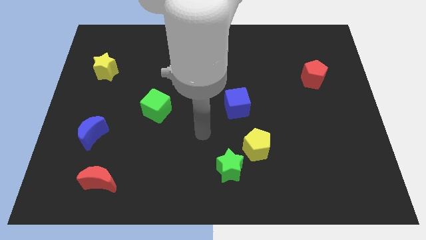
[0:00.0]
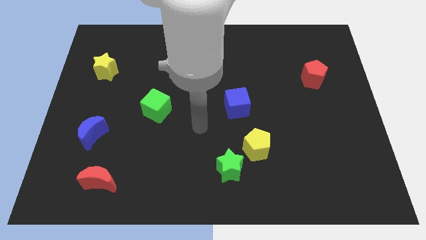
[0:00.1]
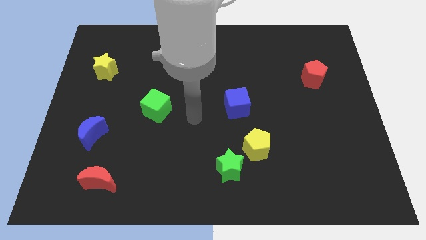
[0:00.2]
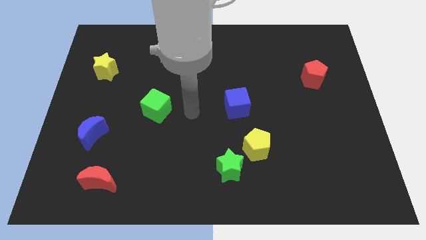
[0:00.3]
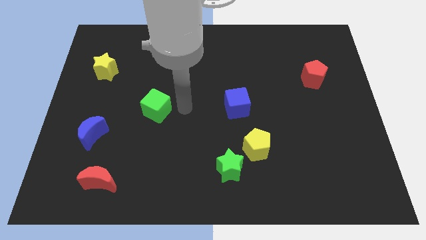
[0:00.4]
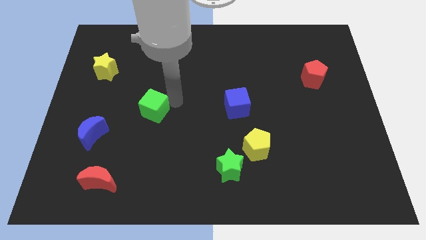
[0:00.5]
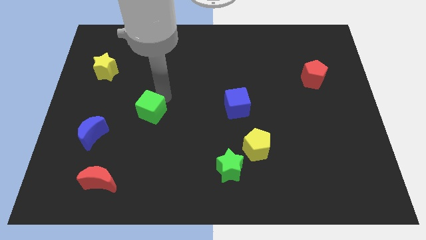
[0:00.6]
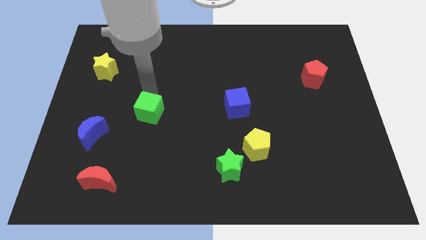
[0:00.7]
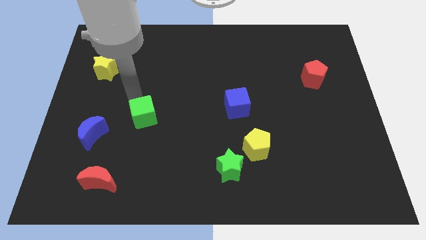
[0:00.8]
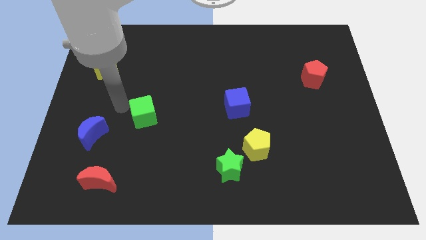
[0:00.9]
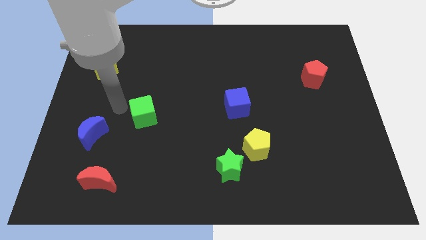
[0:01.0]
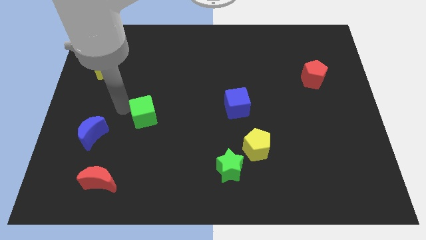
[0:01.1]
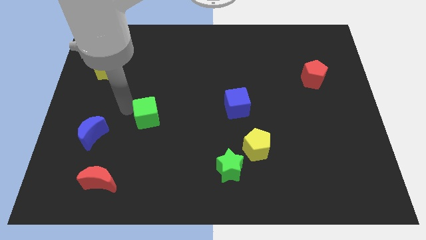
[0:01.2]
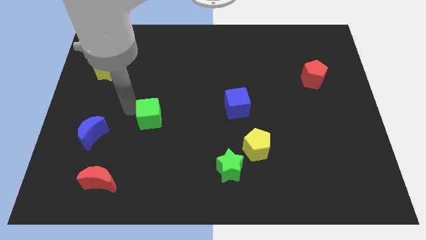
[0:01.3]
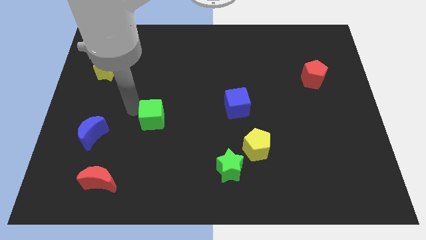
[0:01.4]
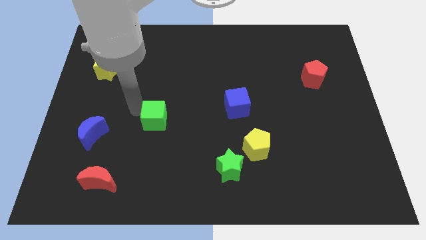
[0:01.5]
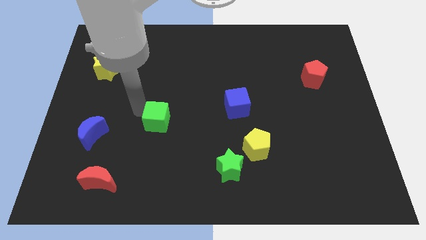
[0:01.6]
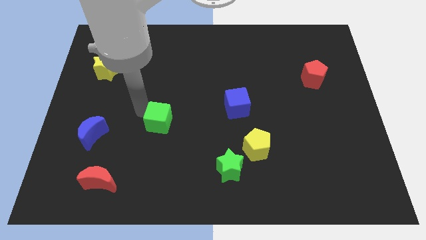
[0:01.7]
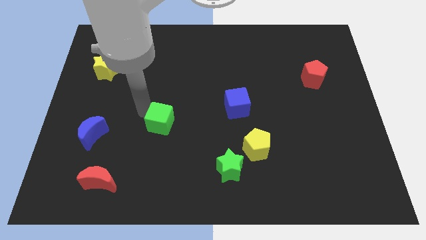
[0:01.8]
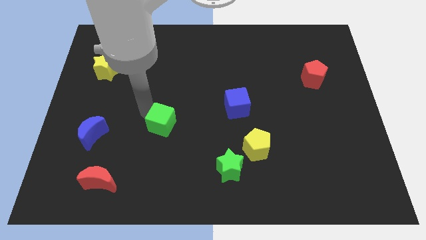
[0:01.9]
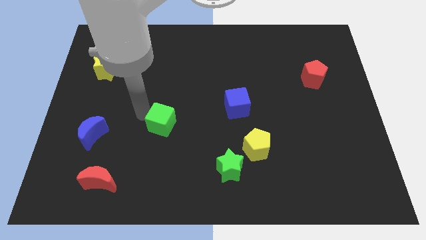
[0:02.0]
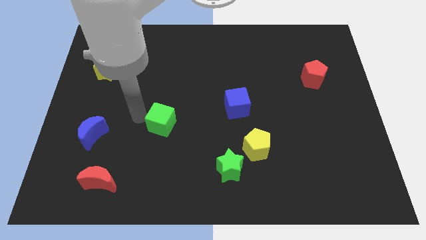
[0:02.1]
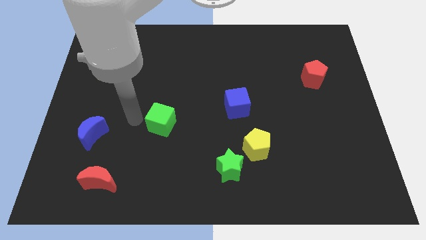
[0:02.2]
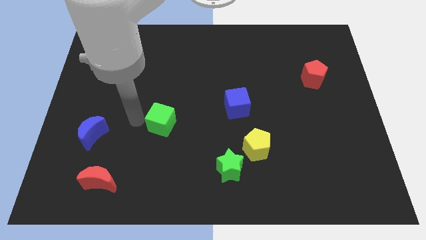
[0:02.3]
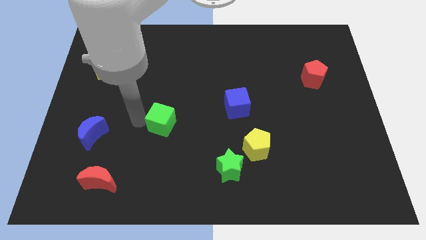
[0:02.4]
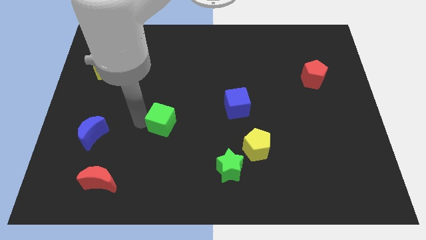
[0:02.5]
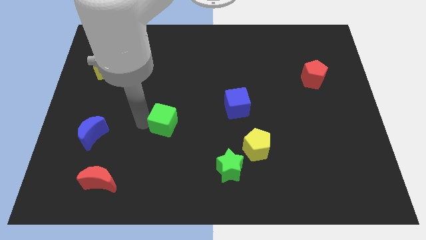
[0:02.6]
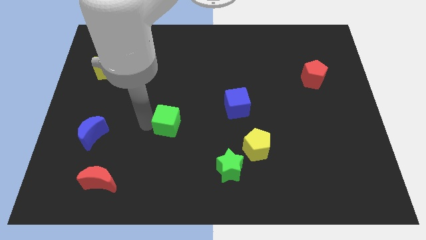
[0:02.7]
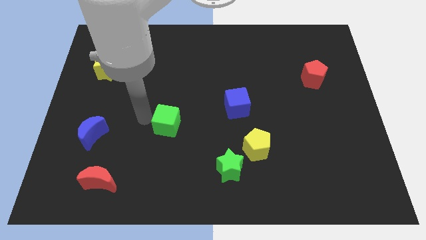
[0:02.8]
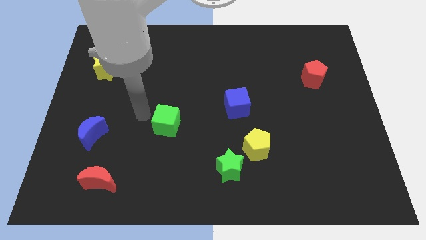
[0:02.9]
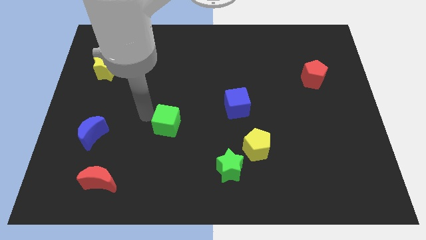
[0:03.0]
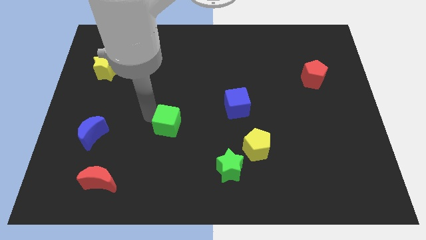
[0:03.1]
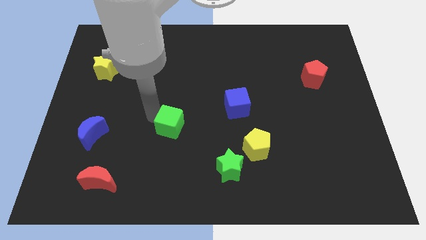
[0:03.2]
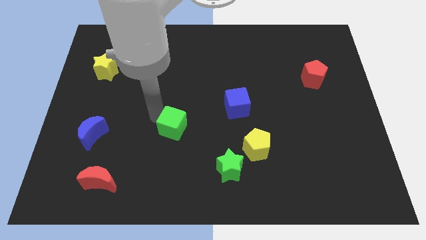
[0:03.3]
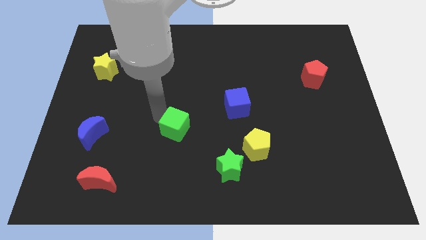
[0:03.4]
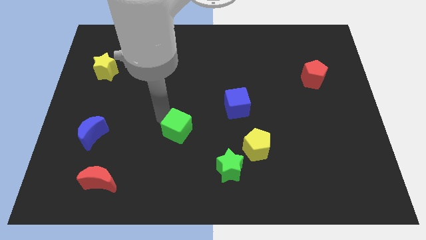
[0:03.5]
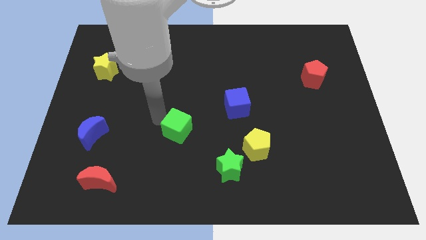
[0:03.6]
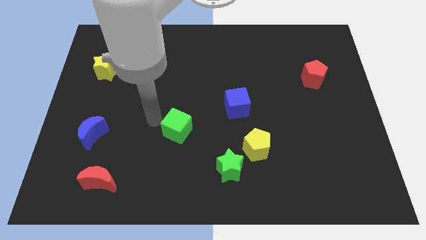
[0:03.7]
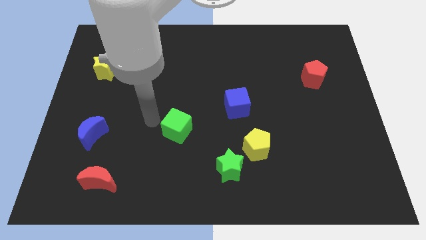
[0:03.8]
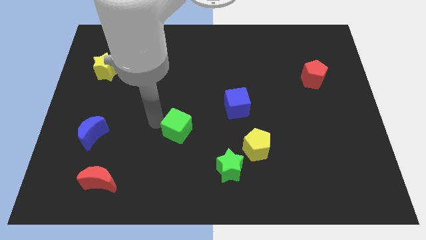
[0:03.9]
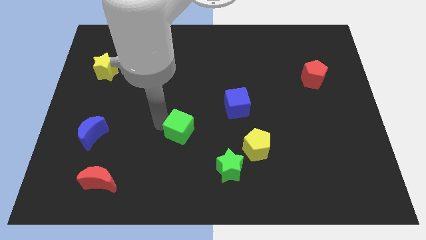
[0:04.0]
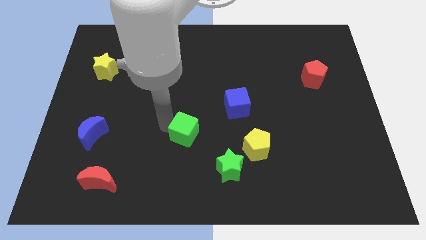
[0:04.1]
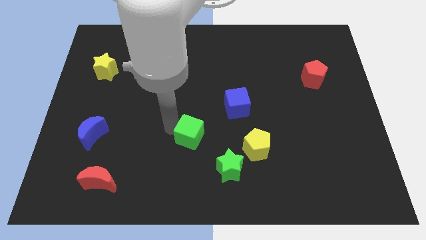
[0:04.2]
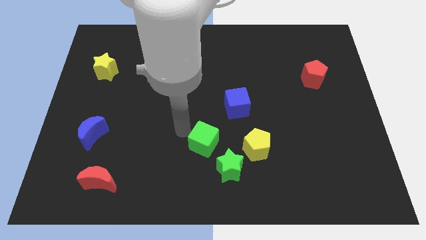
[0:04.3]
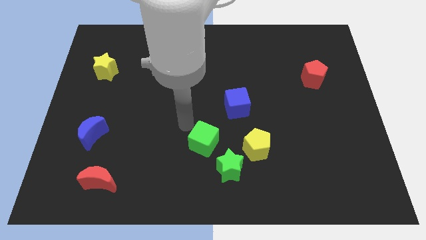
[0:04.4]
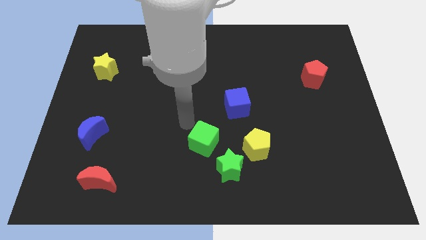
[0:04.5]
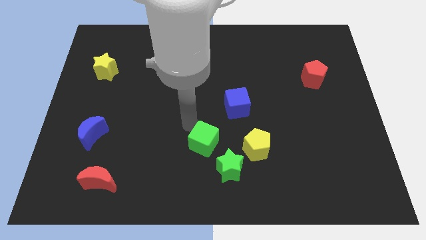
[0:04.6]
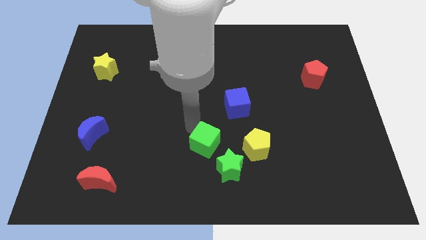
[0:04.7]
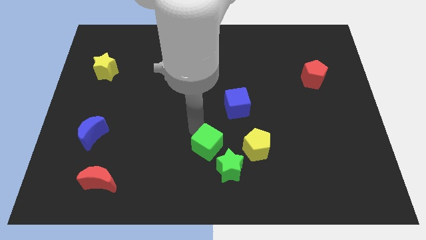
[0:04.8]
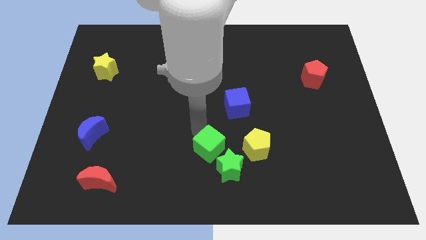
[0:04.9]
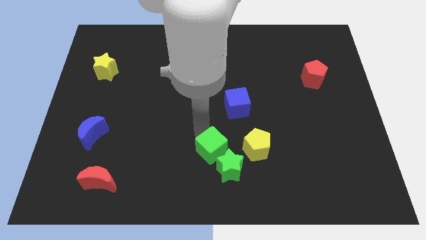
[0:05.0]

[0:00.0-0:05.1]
slide the green cube to the green star

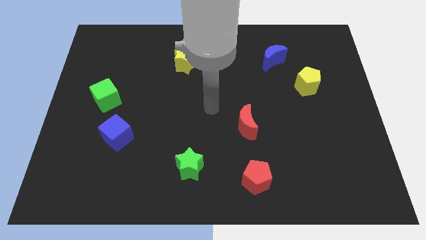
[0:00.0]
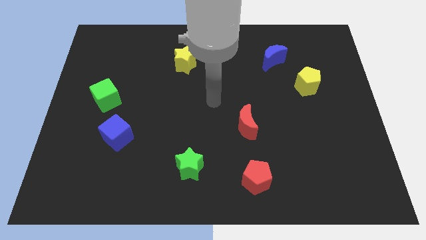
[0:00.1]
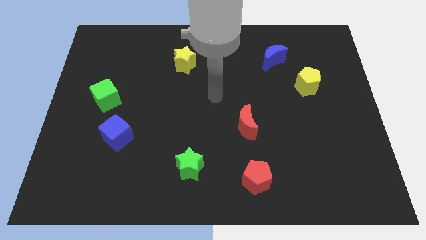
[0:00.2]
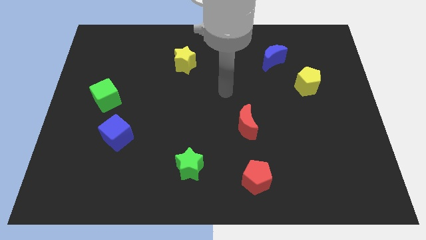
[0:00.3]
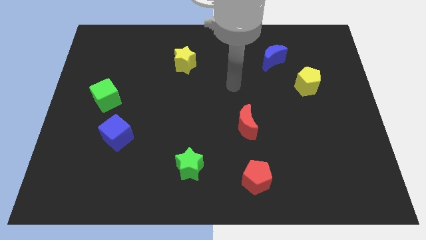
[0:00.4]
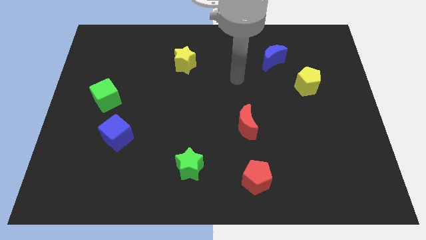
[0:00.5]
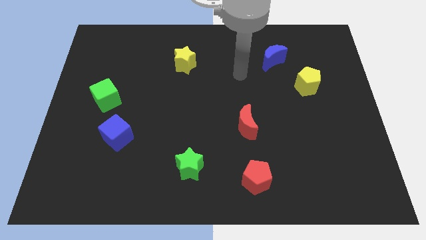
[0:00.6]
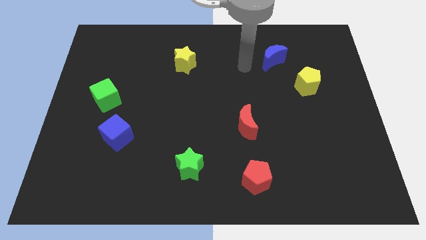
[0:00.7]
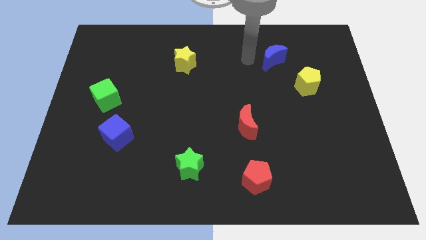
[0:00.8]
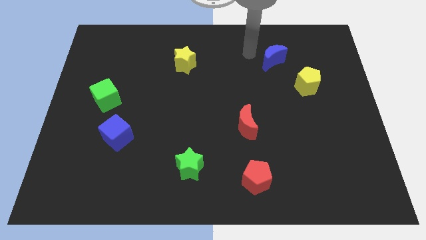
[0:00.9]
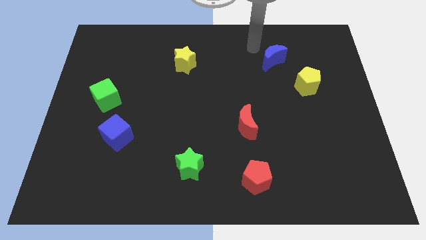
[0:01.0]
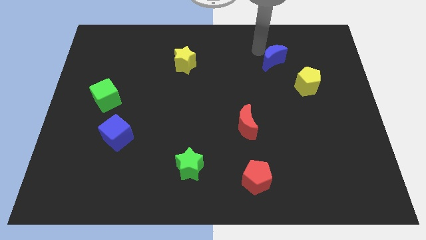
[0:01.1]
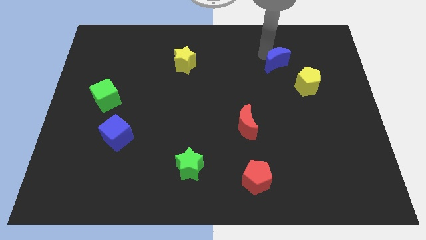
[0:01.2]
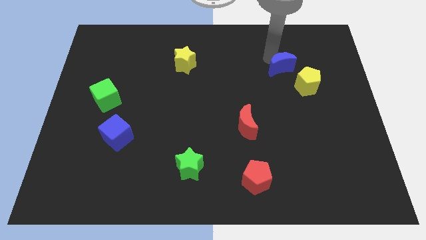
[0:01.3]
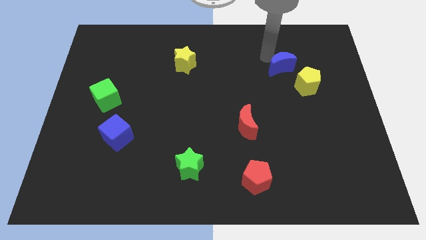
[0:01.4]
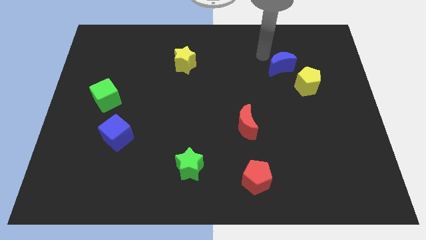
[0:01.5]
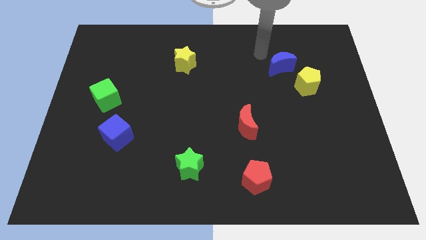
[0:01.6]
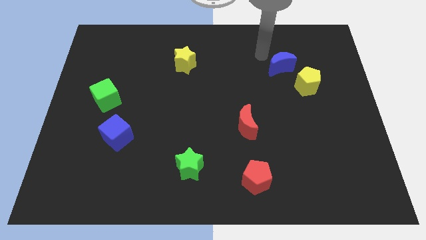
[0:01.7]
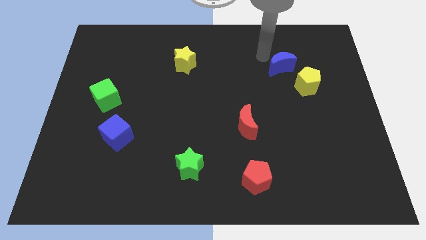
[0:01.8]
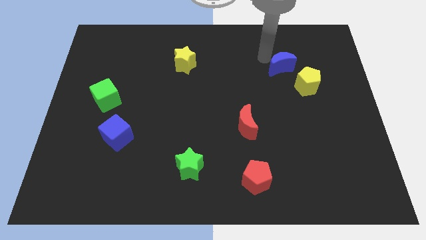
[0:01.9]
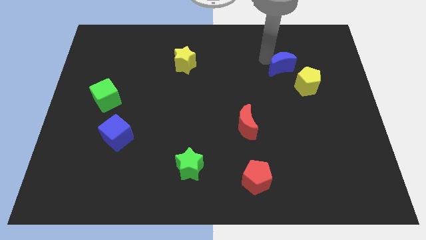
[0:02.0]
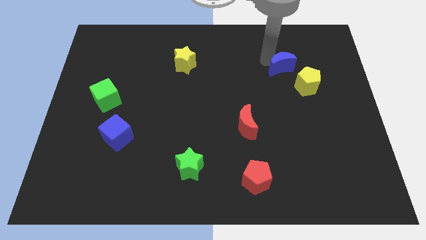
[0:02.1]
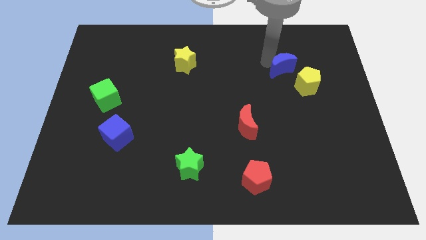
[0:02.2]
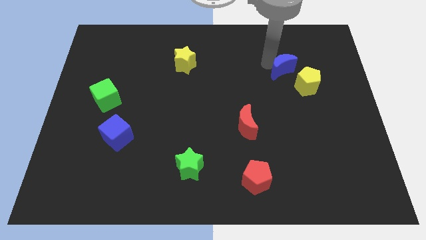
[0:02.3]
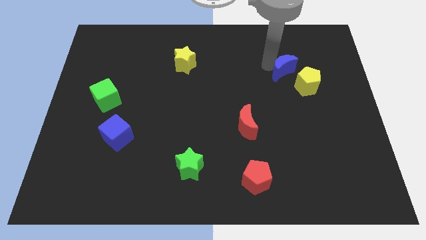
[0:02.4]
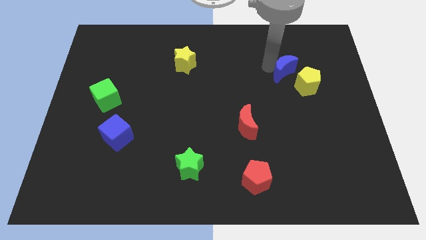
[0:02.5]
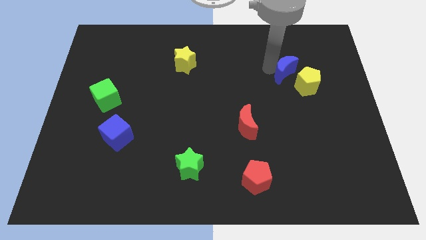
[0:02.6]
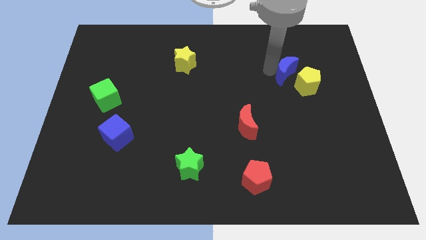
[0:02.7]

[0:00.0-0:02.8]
slide the blue moon next to the yellow pentagon

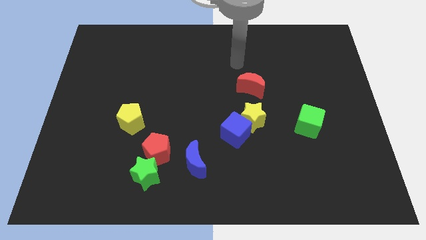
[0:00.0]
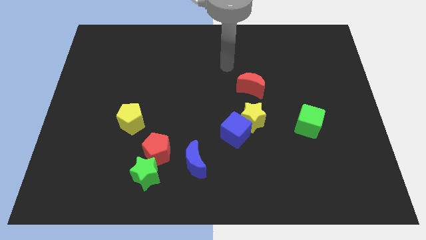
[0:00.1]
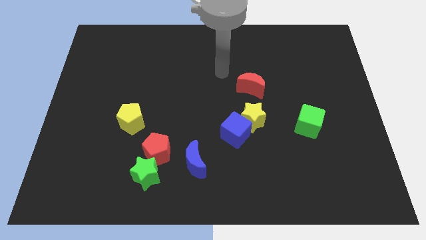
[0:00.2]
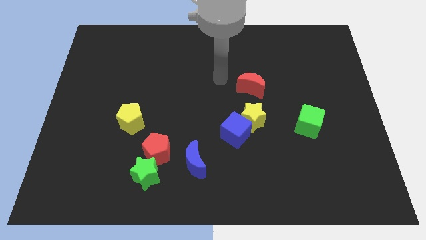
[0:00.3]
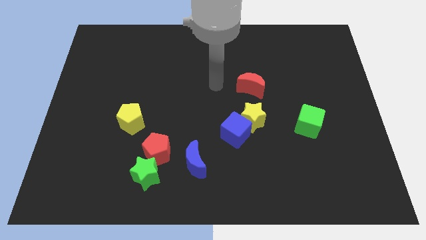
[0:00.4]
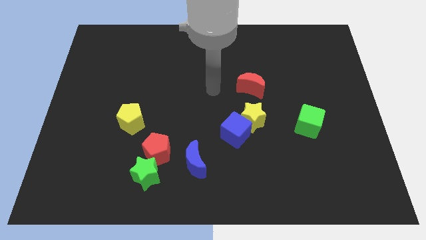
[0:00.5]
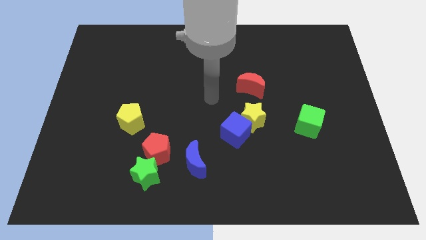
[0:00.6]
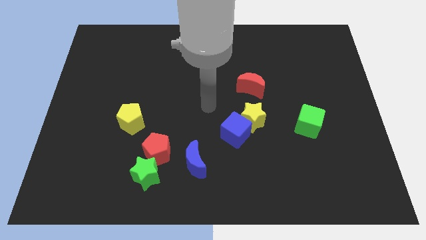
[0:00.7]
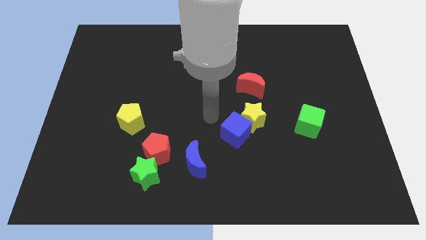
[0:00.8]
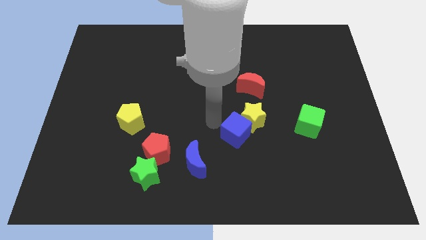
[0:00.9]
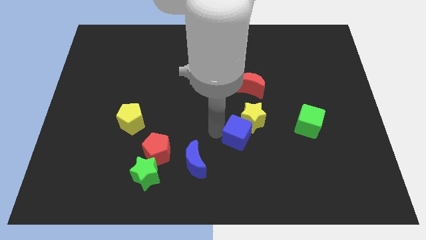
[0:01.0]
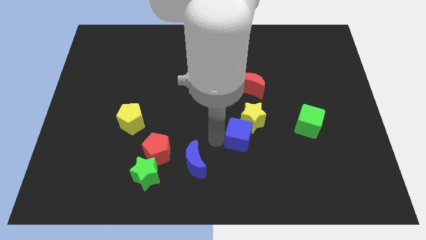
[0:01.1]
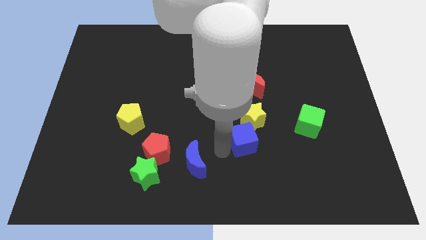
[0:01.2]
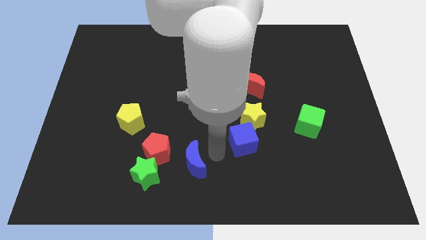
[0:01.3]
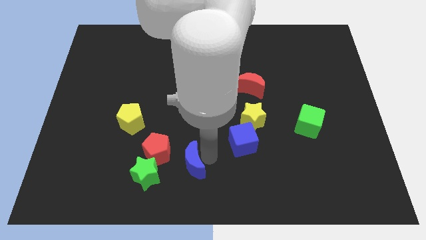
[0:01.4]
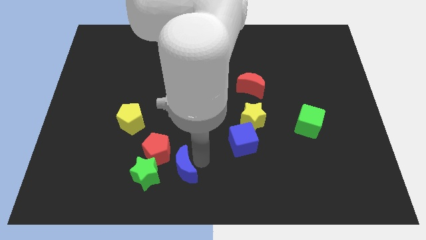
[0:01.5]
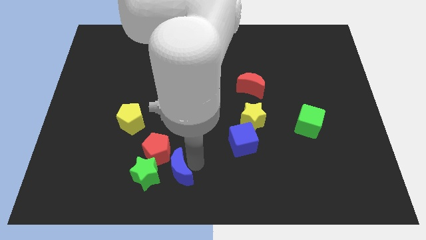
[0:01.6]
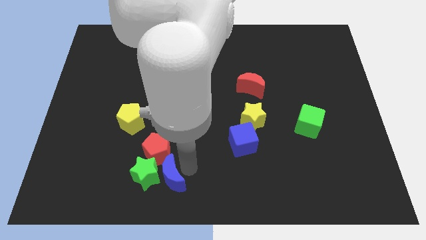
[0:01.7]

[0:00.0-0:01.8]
move the blue moon next to the green star
